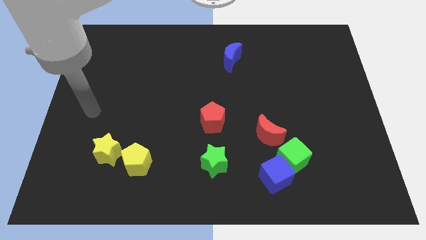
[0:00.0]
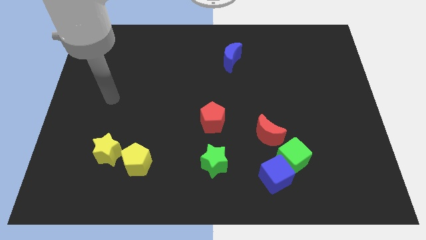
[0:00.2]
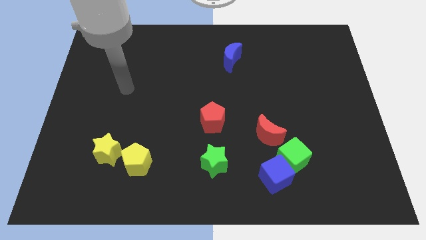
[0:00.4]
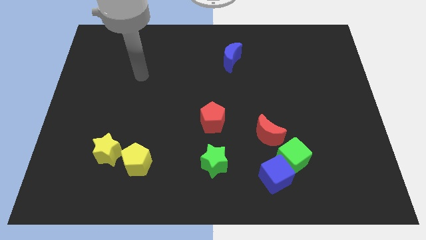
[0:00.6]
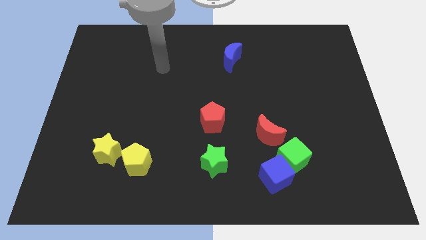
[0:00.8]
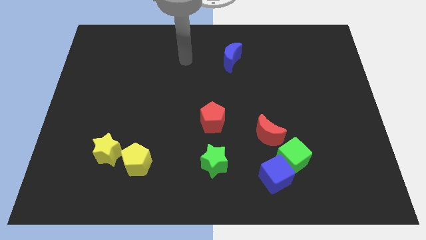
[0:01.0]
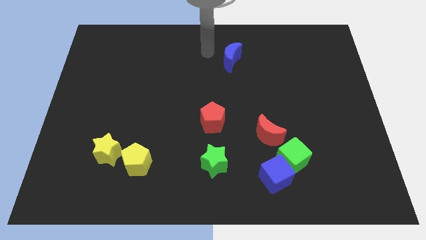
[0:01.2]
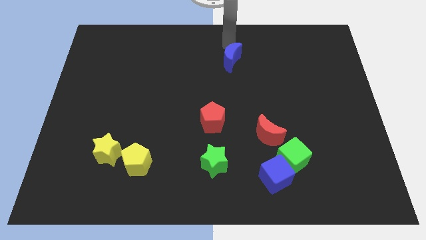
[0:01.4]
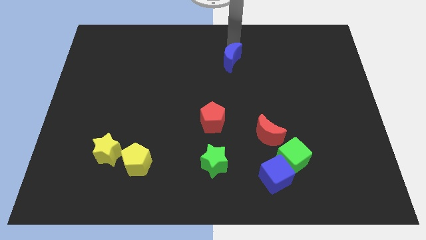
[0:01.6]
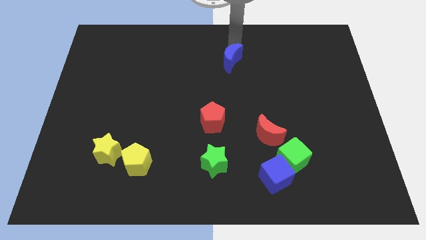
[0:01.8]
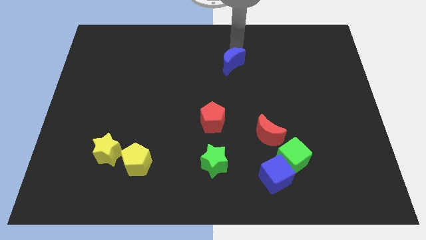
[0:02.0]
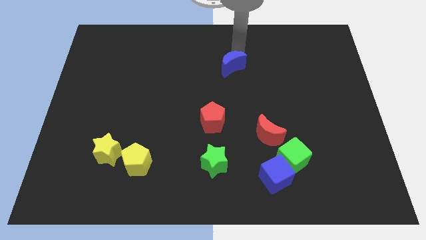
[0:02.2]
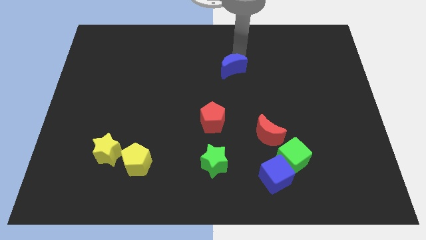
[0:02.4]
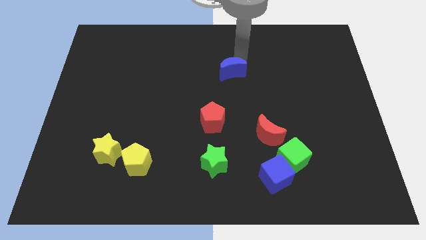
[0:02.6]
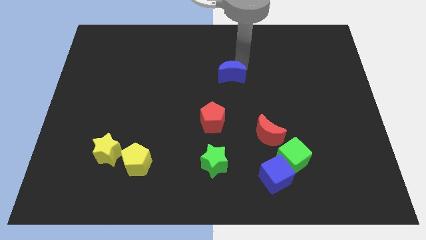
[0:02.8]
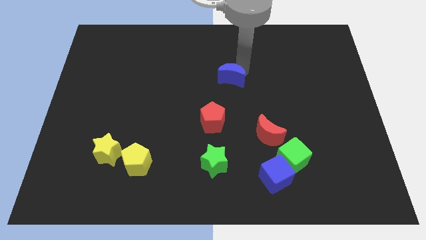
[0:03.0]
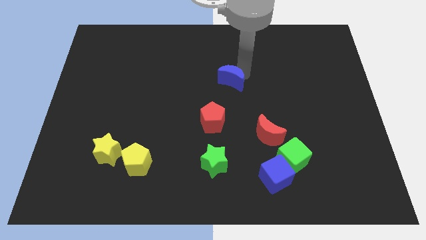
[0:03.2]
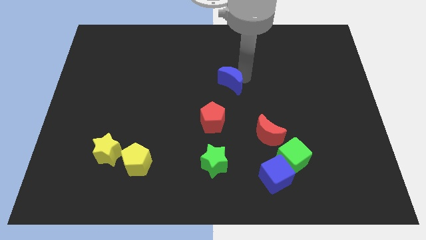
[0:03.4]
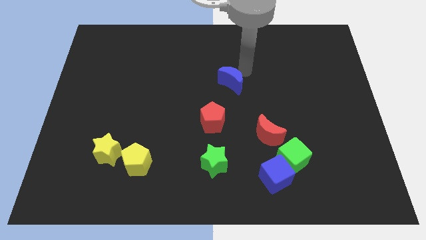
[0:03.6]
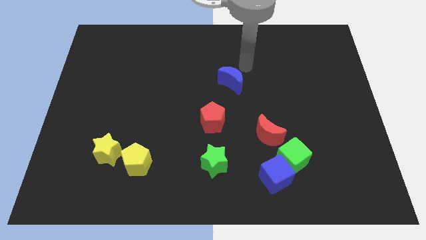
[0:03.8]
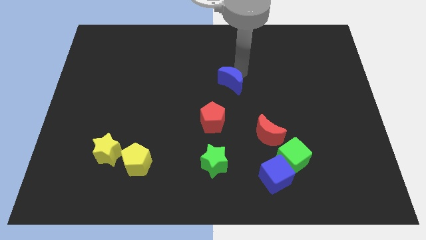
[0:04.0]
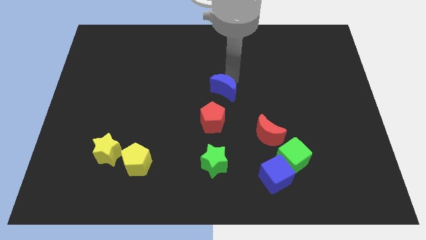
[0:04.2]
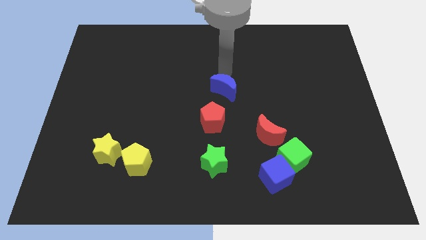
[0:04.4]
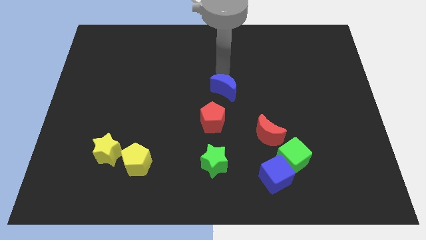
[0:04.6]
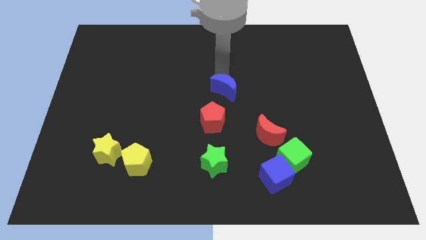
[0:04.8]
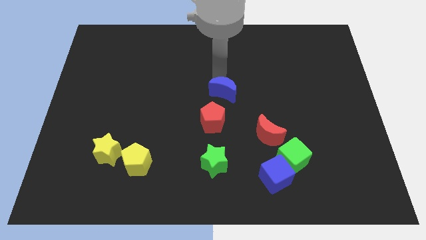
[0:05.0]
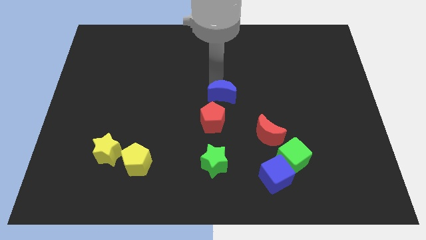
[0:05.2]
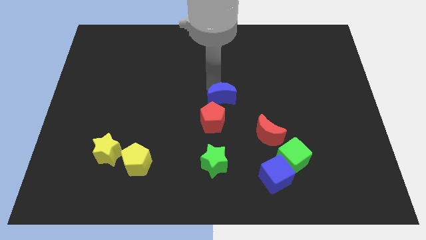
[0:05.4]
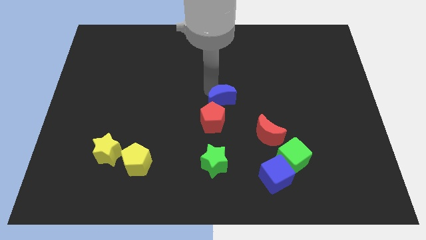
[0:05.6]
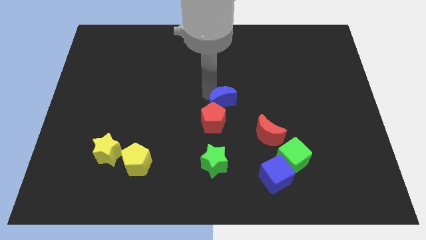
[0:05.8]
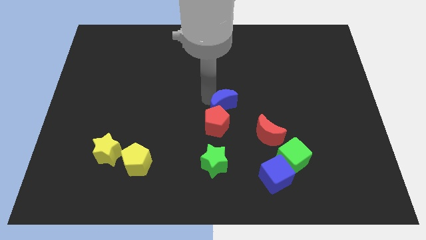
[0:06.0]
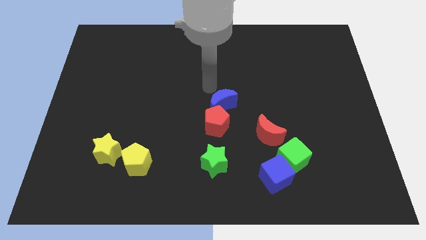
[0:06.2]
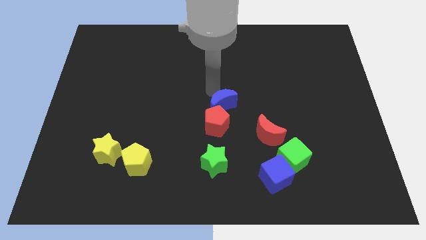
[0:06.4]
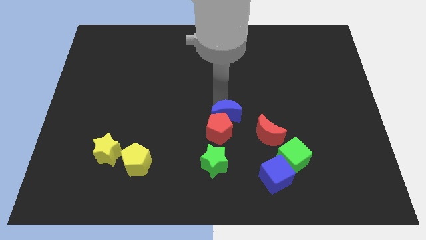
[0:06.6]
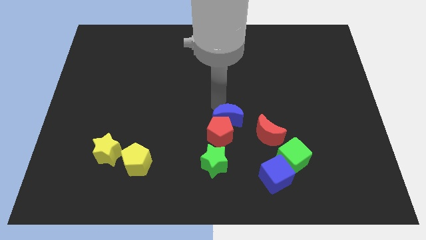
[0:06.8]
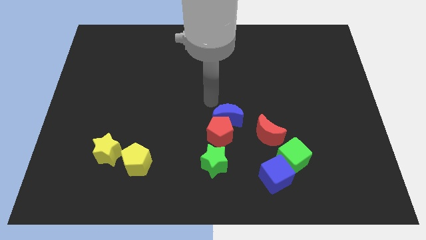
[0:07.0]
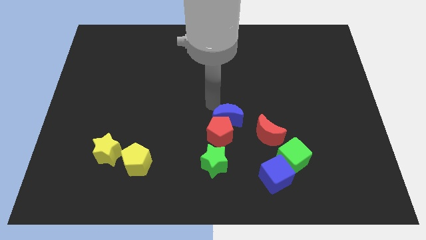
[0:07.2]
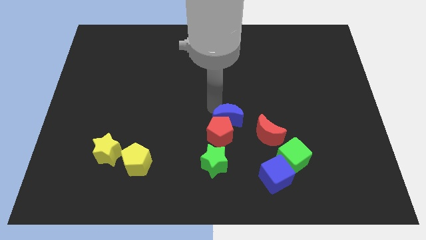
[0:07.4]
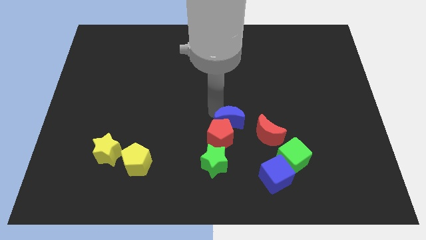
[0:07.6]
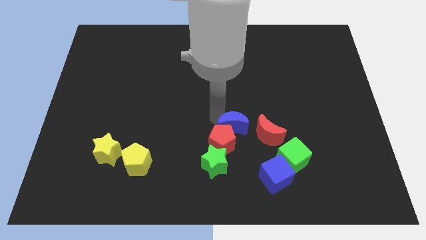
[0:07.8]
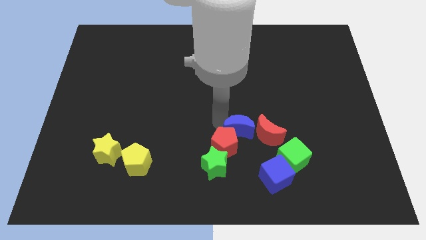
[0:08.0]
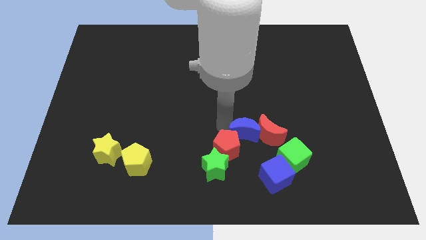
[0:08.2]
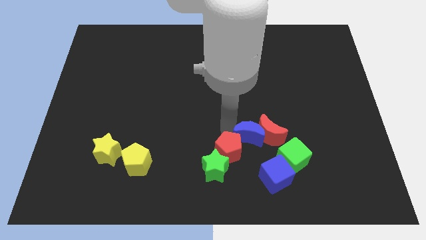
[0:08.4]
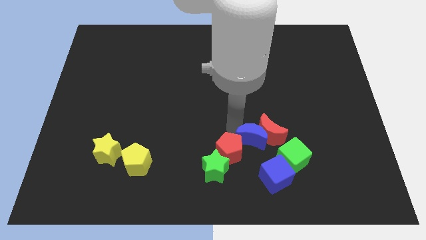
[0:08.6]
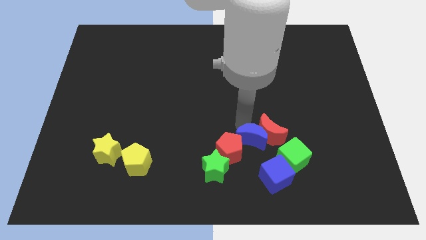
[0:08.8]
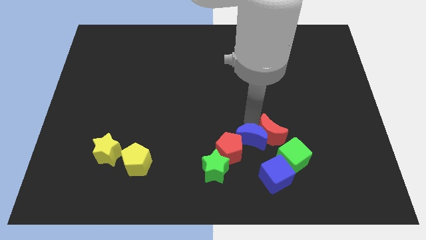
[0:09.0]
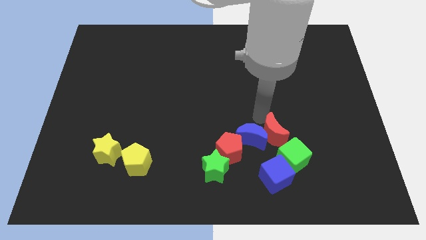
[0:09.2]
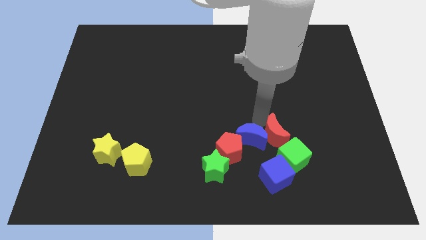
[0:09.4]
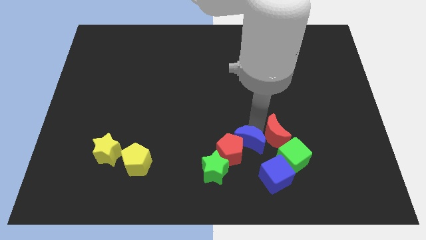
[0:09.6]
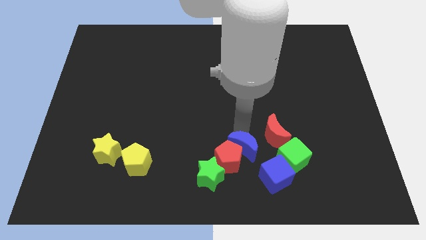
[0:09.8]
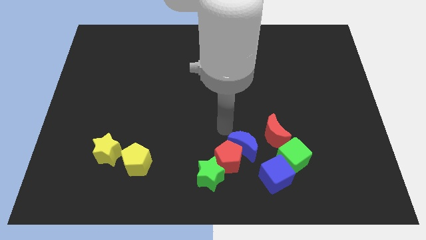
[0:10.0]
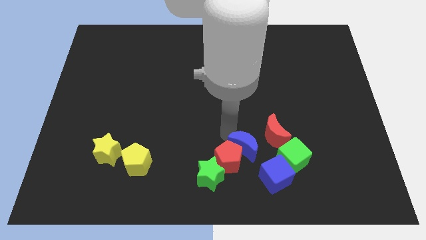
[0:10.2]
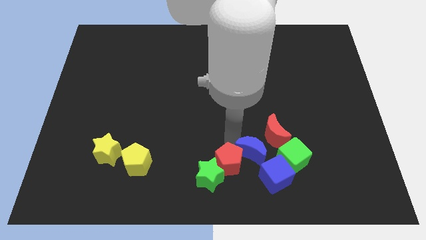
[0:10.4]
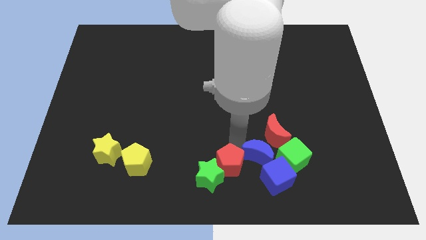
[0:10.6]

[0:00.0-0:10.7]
put the blue moon towards the blue cube

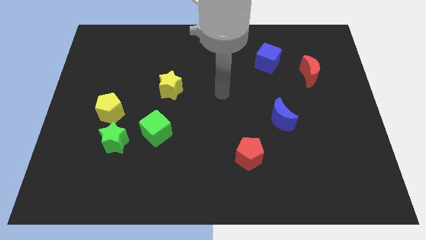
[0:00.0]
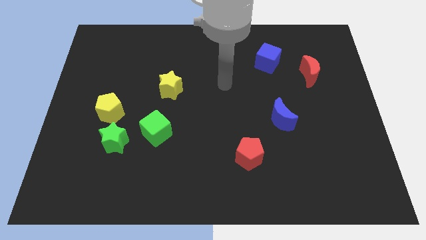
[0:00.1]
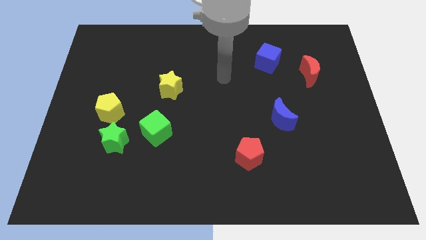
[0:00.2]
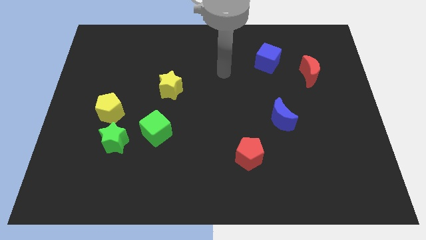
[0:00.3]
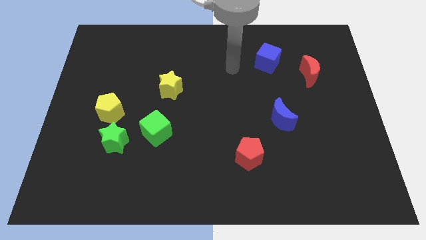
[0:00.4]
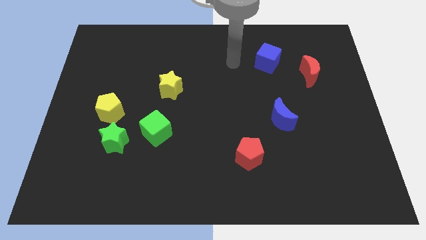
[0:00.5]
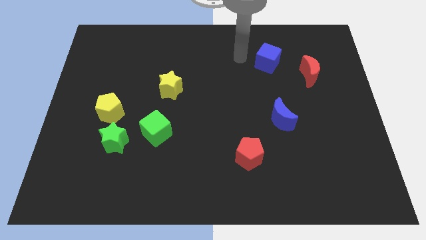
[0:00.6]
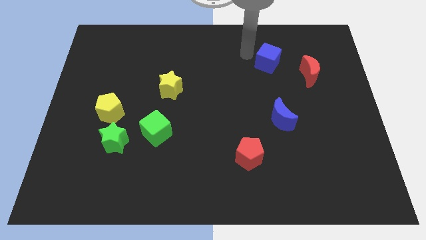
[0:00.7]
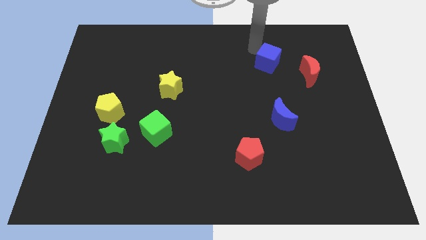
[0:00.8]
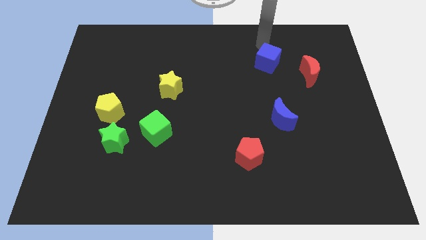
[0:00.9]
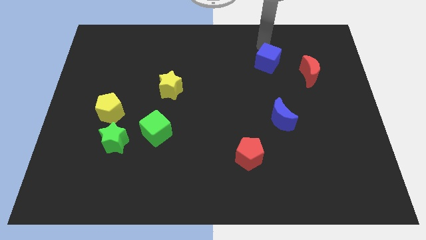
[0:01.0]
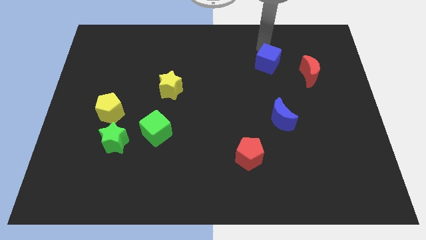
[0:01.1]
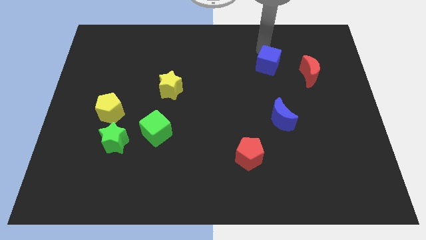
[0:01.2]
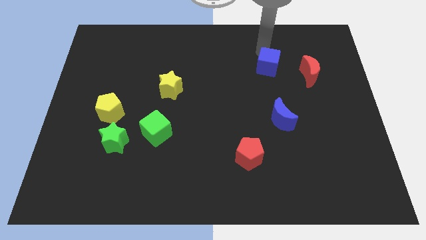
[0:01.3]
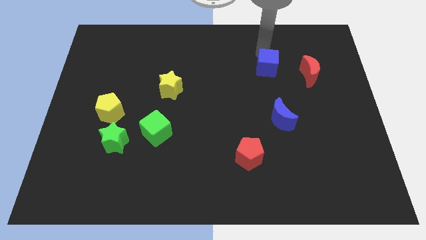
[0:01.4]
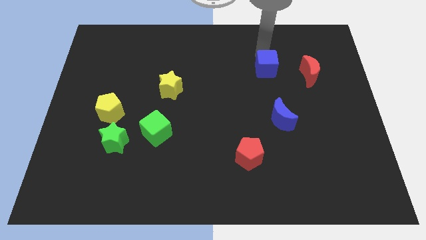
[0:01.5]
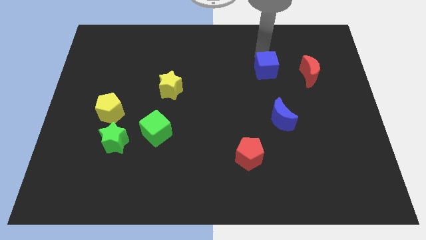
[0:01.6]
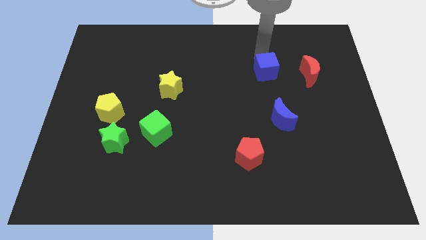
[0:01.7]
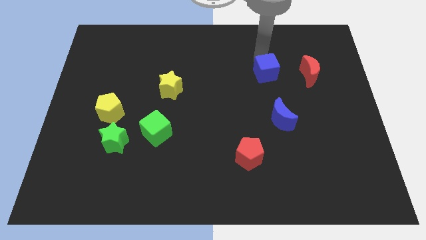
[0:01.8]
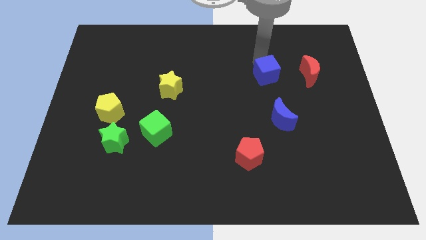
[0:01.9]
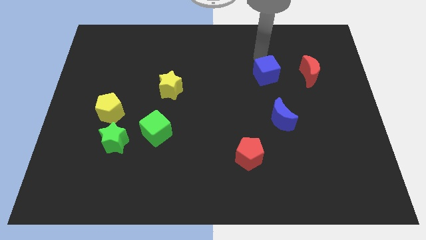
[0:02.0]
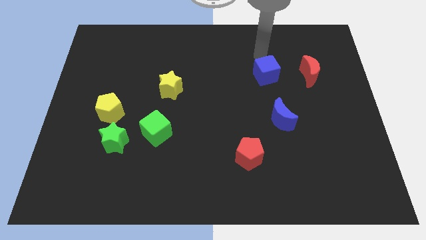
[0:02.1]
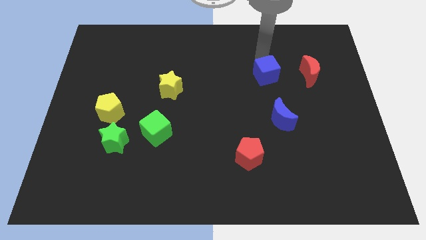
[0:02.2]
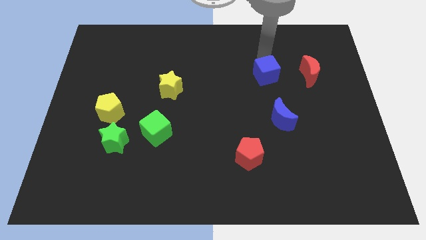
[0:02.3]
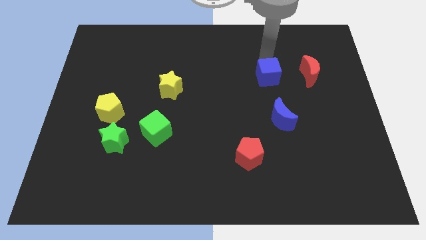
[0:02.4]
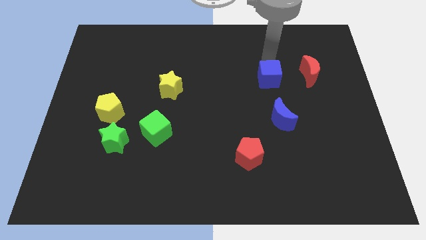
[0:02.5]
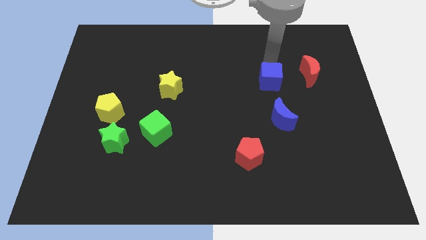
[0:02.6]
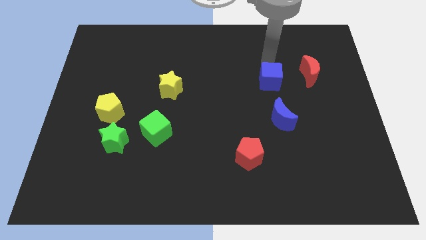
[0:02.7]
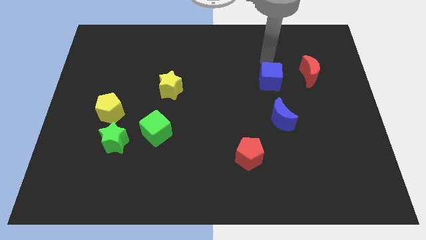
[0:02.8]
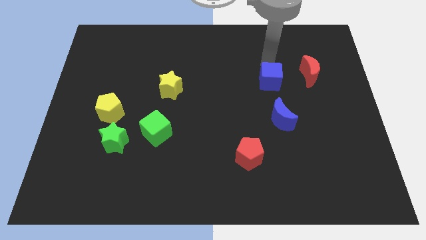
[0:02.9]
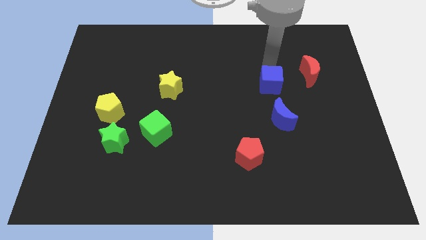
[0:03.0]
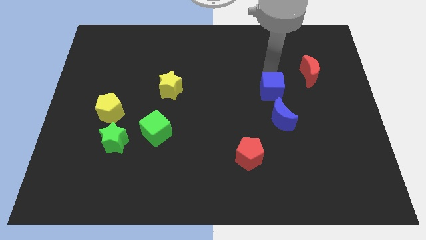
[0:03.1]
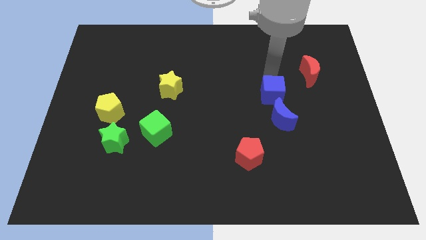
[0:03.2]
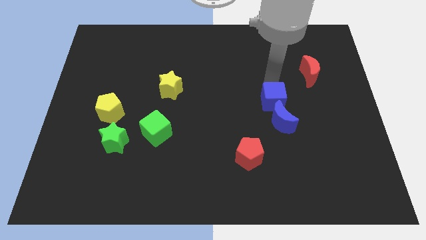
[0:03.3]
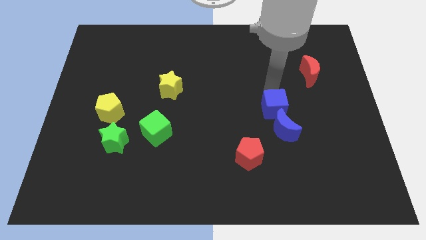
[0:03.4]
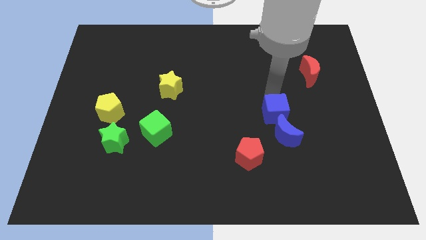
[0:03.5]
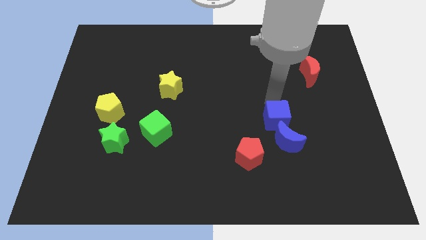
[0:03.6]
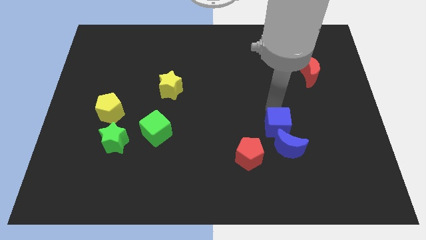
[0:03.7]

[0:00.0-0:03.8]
move the blue cube close to the blue moon
